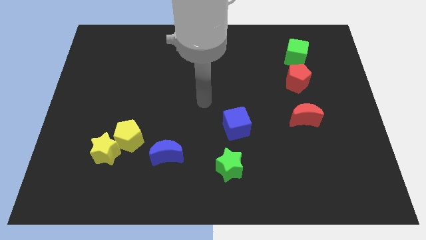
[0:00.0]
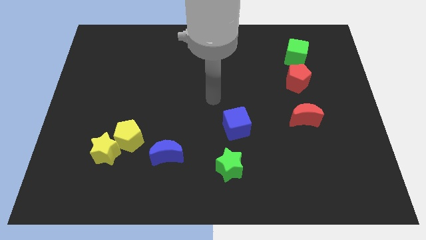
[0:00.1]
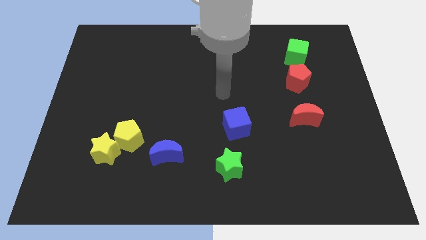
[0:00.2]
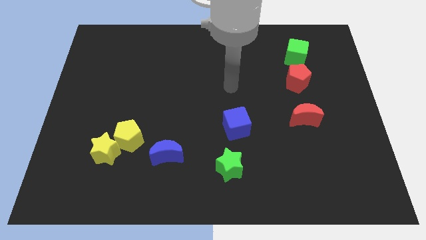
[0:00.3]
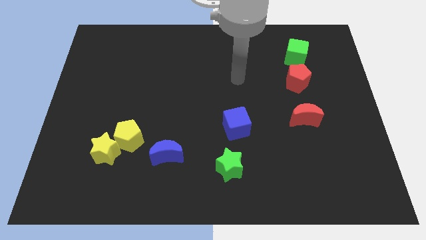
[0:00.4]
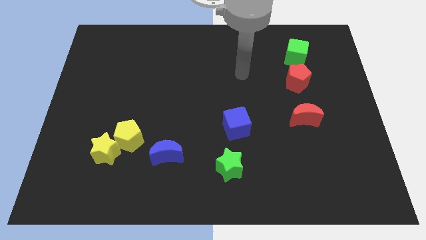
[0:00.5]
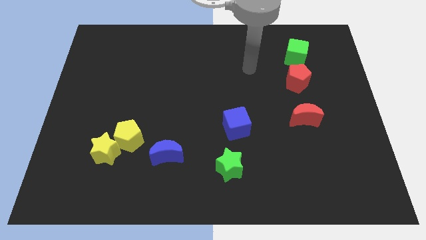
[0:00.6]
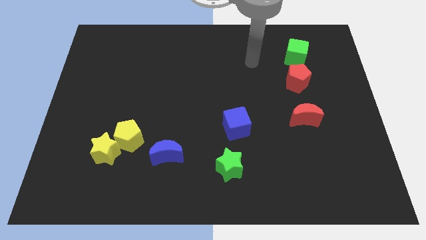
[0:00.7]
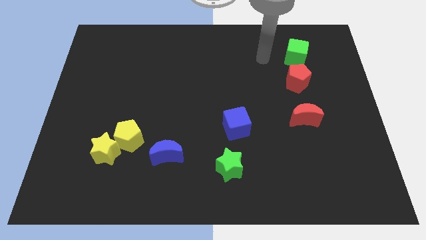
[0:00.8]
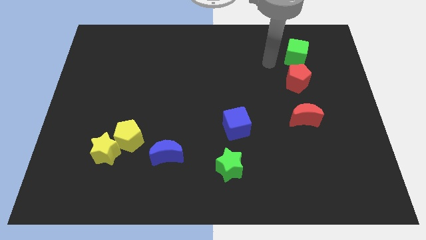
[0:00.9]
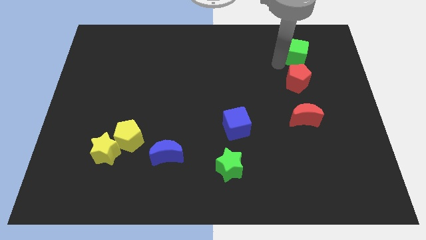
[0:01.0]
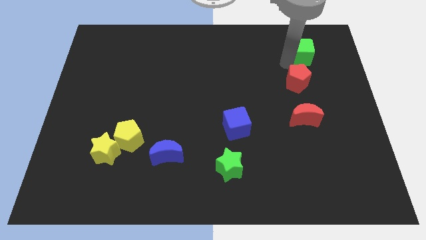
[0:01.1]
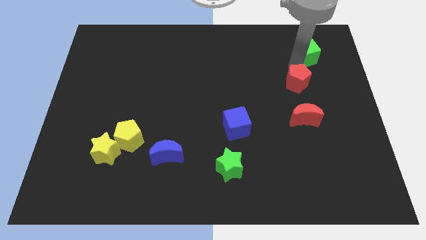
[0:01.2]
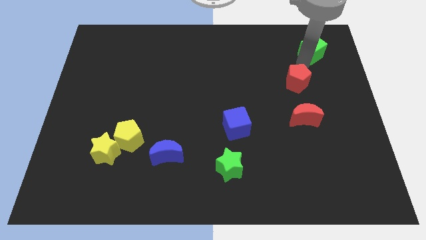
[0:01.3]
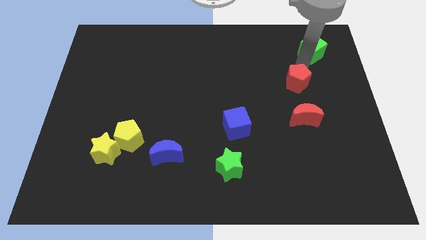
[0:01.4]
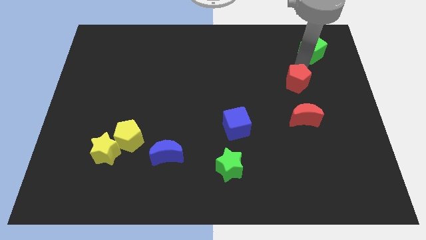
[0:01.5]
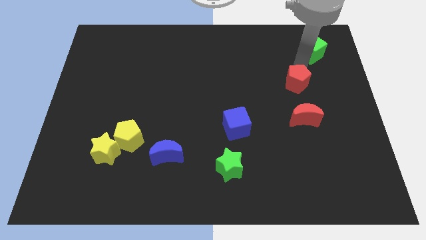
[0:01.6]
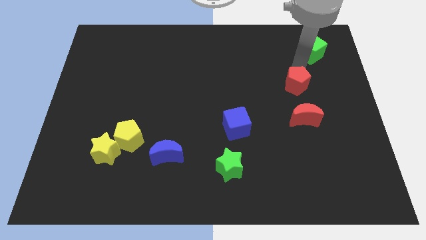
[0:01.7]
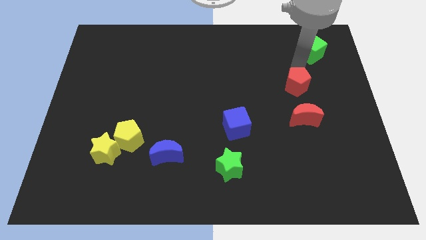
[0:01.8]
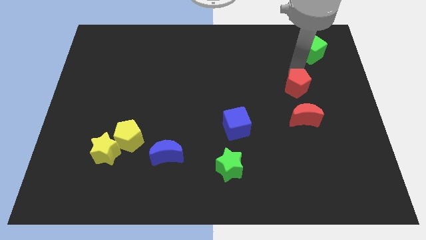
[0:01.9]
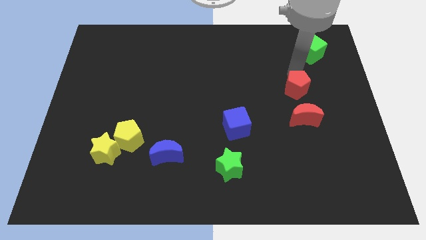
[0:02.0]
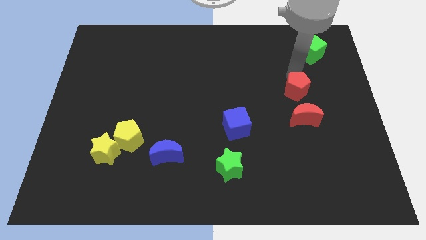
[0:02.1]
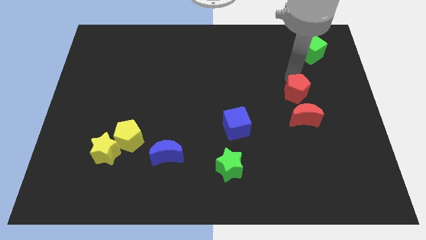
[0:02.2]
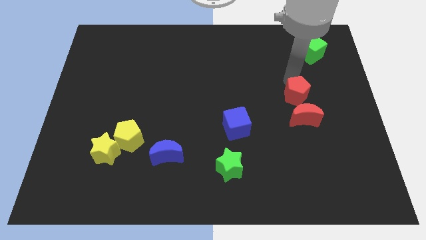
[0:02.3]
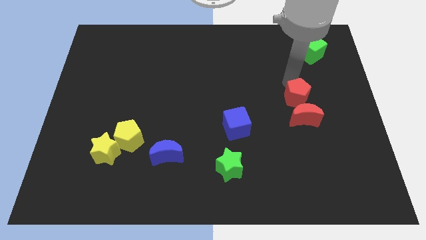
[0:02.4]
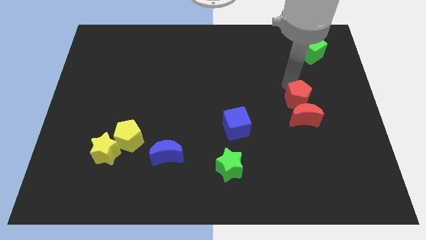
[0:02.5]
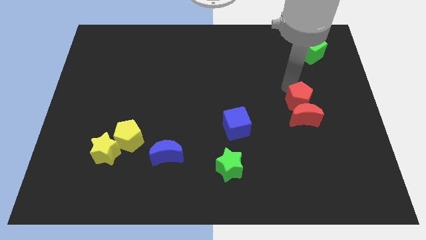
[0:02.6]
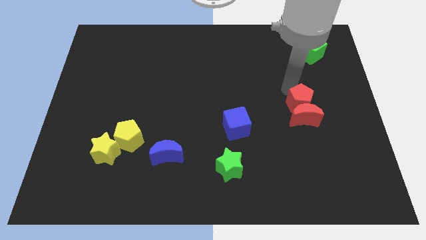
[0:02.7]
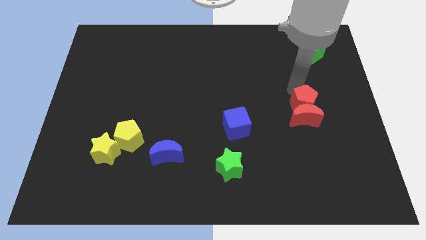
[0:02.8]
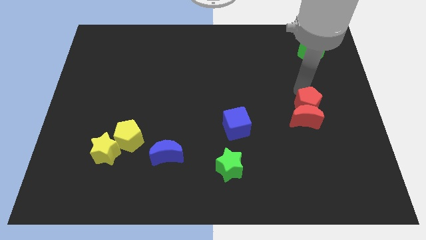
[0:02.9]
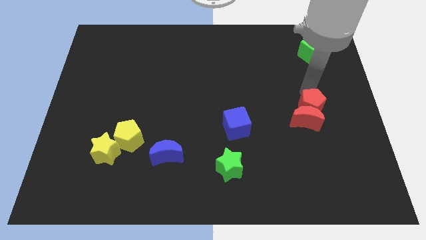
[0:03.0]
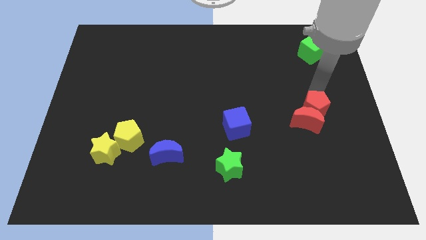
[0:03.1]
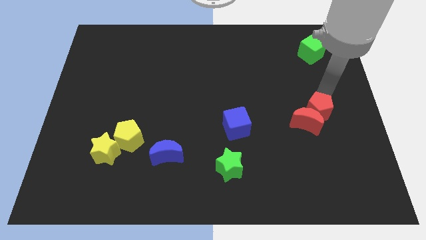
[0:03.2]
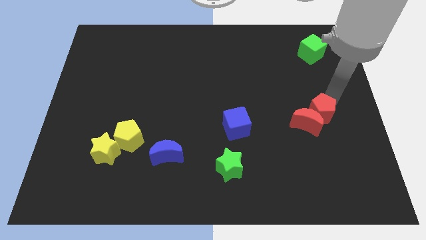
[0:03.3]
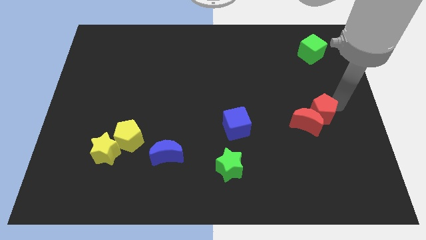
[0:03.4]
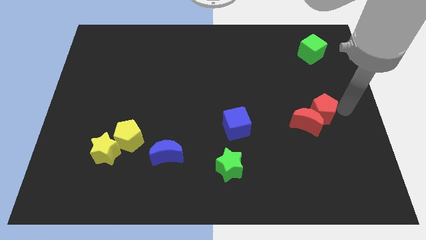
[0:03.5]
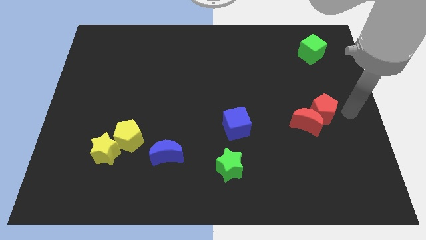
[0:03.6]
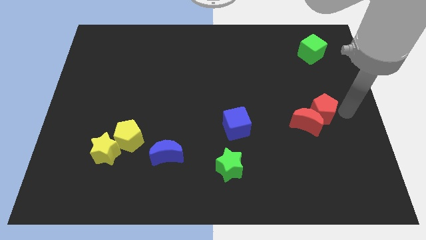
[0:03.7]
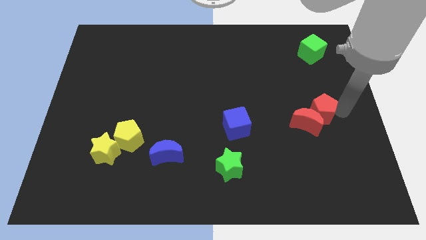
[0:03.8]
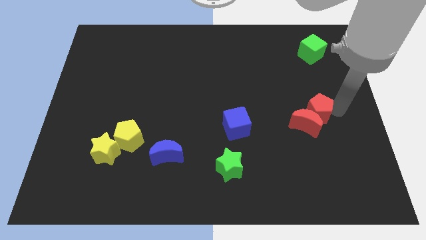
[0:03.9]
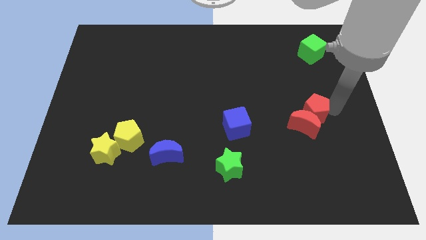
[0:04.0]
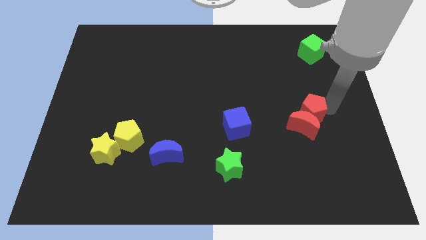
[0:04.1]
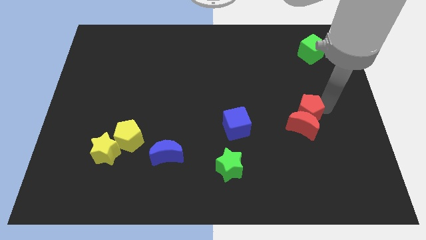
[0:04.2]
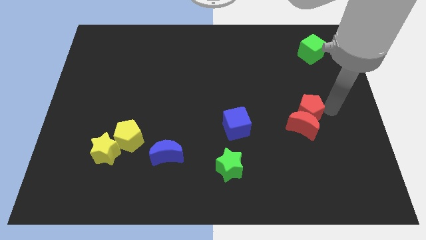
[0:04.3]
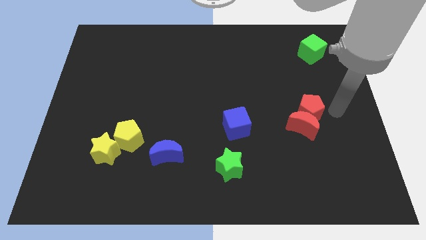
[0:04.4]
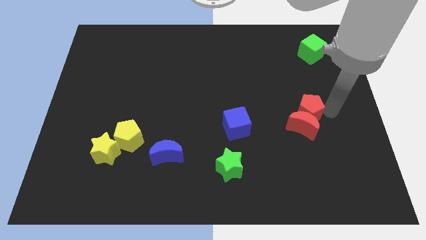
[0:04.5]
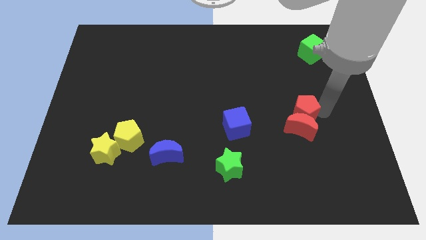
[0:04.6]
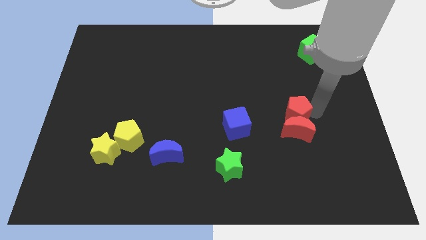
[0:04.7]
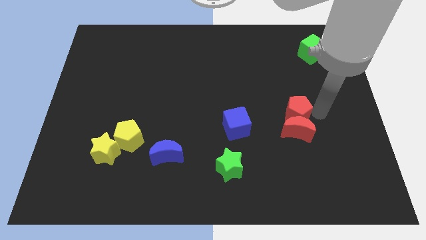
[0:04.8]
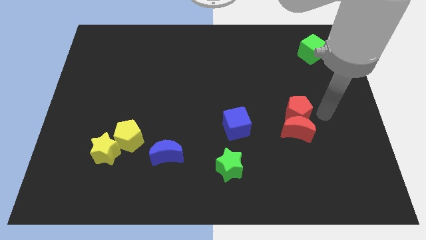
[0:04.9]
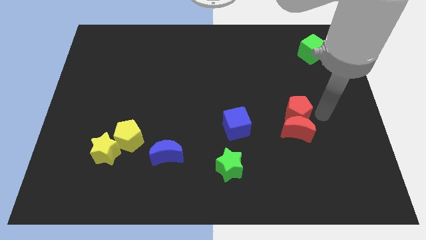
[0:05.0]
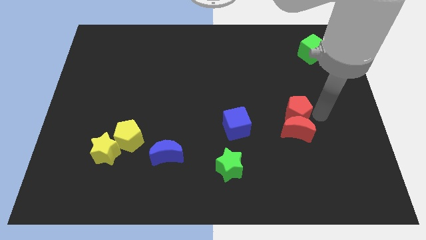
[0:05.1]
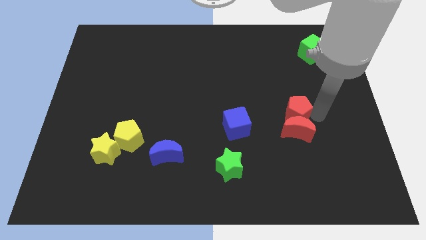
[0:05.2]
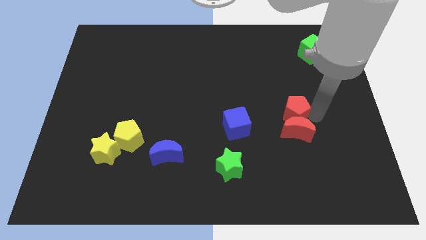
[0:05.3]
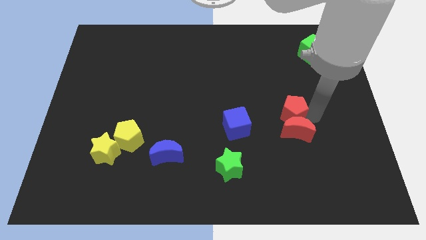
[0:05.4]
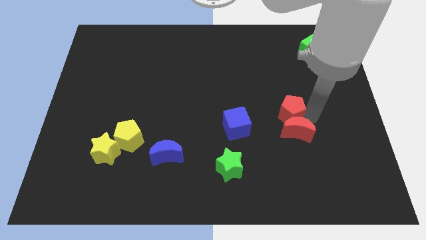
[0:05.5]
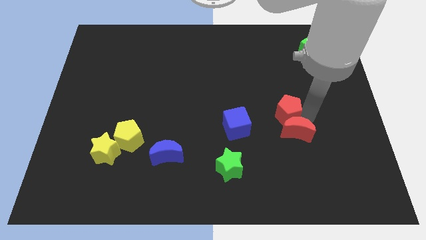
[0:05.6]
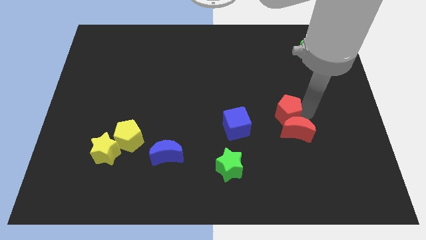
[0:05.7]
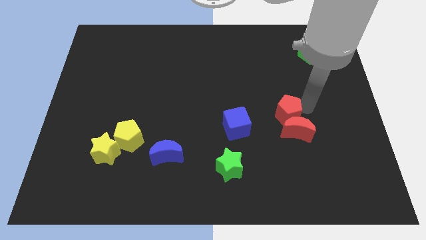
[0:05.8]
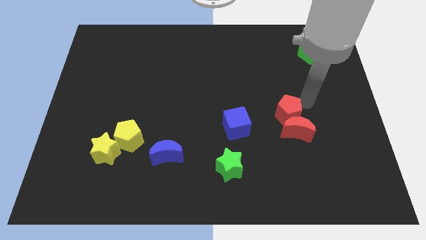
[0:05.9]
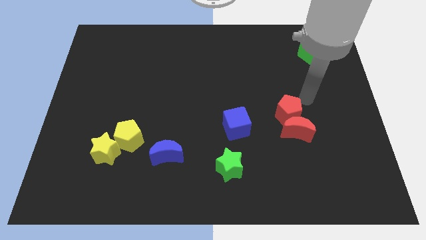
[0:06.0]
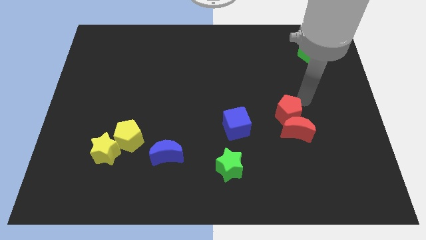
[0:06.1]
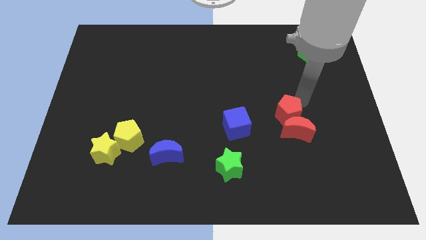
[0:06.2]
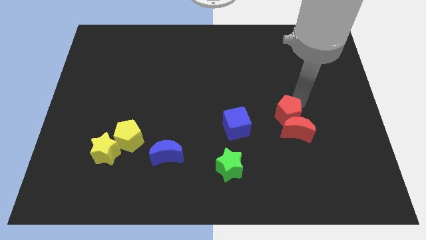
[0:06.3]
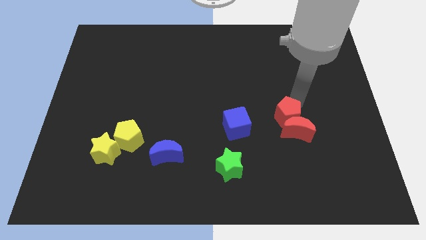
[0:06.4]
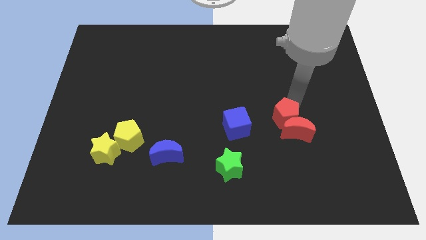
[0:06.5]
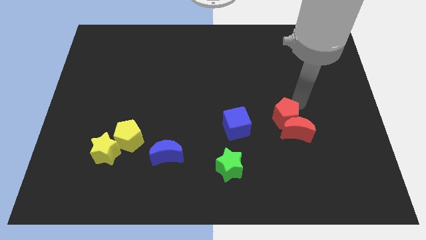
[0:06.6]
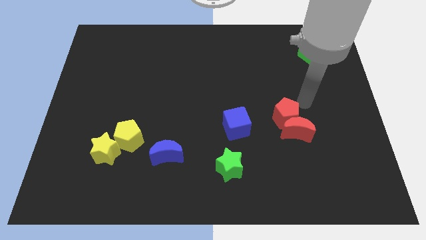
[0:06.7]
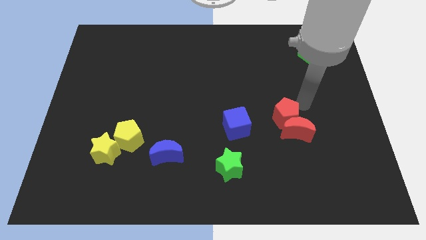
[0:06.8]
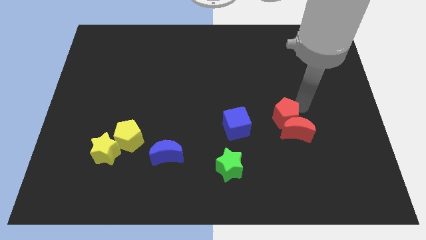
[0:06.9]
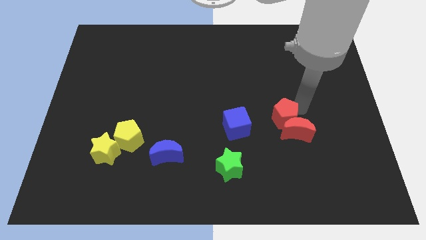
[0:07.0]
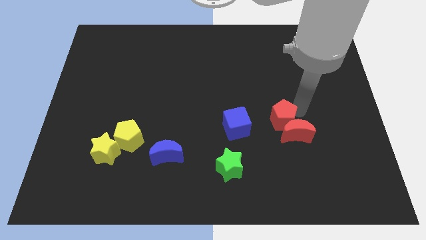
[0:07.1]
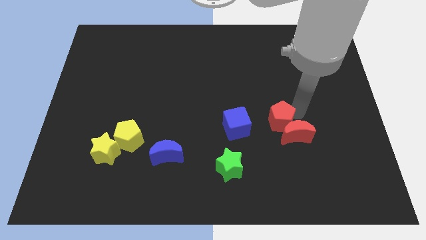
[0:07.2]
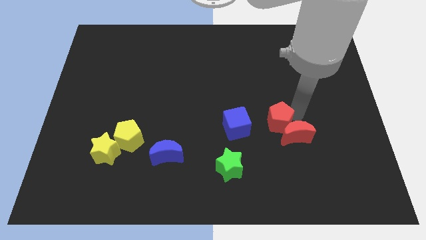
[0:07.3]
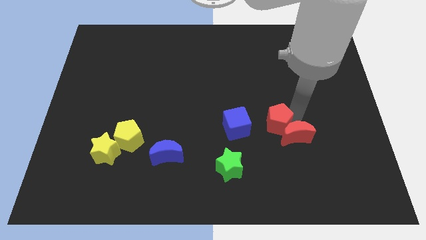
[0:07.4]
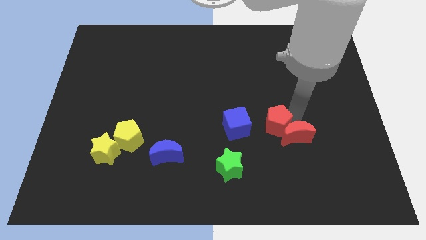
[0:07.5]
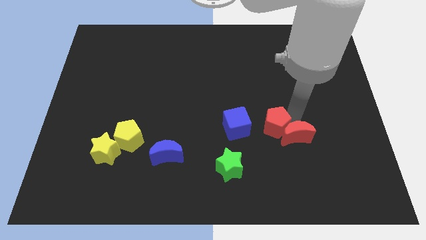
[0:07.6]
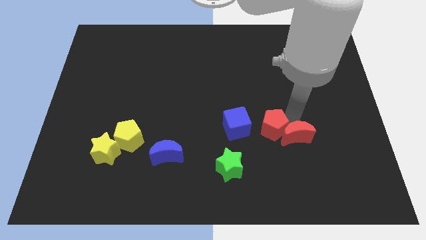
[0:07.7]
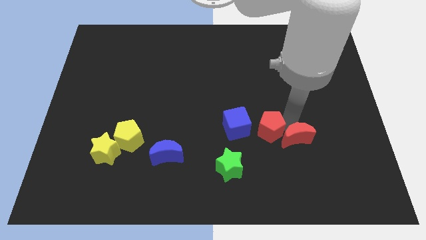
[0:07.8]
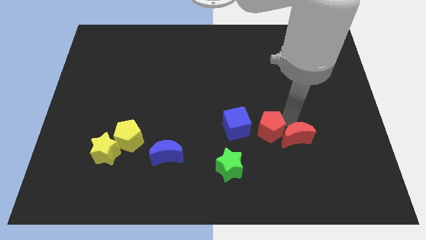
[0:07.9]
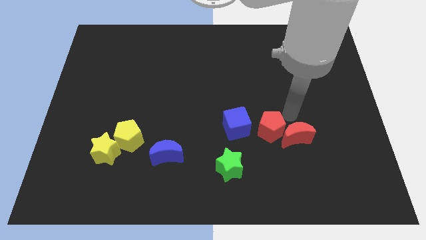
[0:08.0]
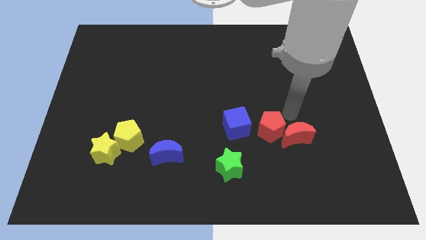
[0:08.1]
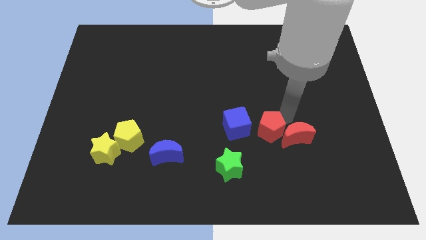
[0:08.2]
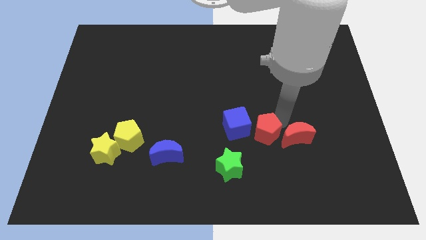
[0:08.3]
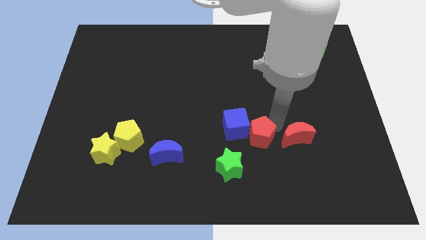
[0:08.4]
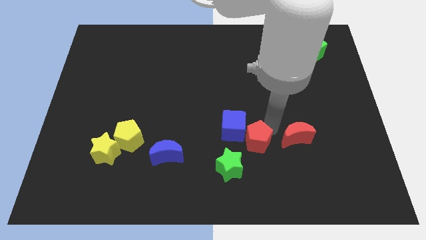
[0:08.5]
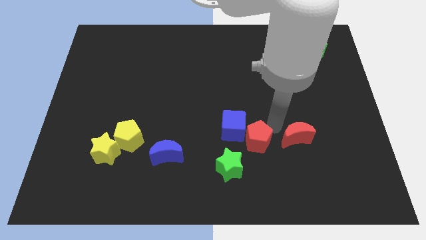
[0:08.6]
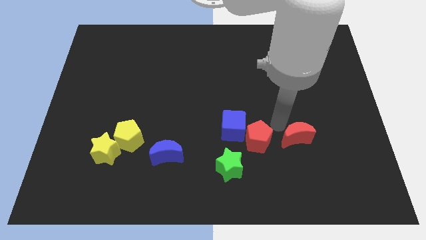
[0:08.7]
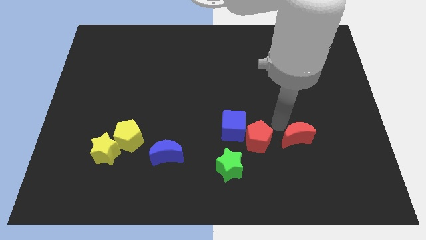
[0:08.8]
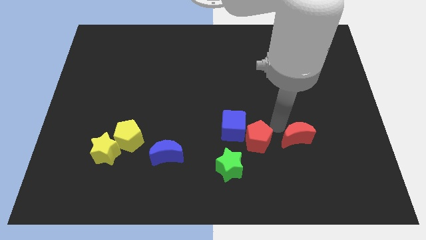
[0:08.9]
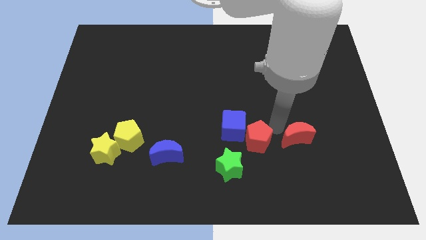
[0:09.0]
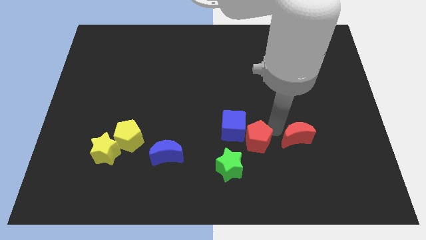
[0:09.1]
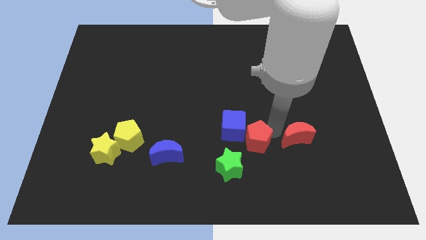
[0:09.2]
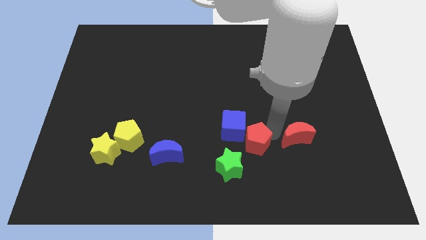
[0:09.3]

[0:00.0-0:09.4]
slide the red pentagon downwards and then to the left
